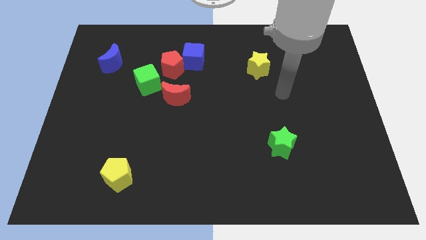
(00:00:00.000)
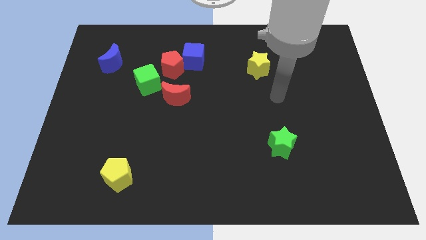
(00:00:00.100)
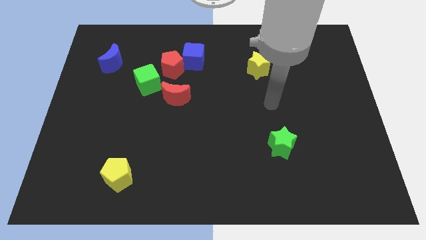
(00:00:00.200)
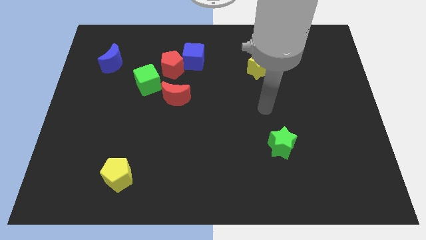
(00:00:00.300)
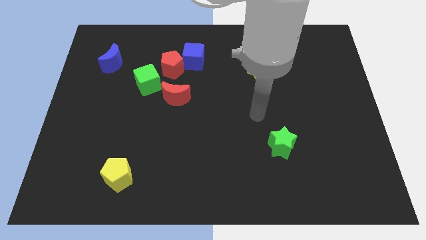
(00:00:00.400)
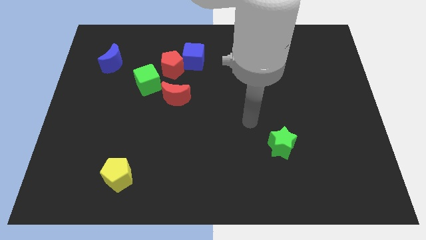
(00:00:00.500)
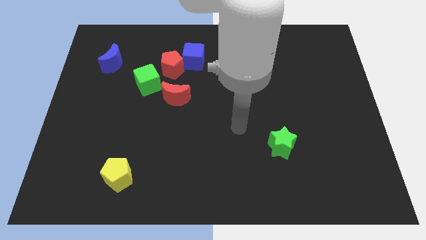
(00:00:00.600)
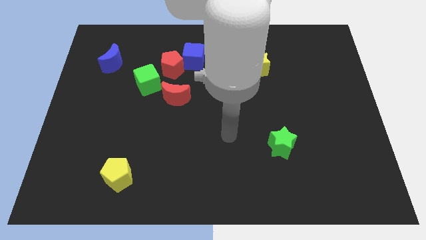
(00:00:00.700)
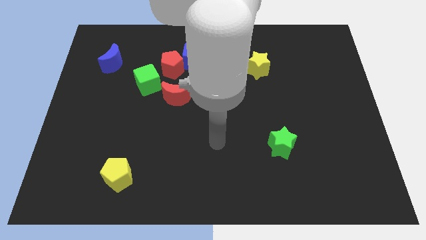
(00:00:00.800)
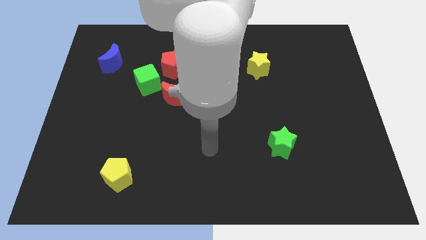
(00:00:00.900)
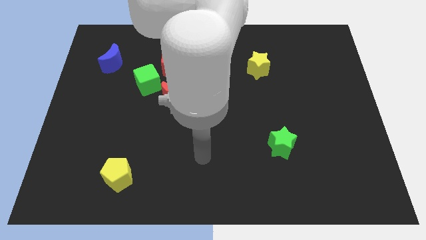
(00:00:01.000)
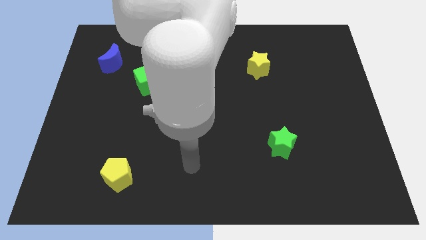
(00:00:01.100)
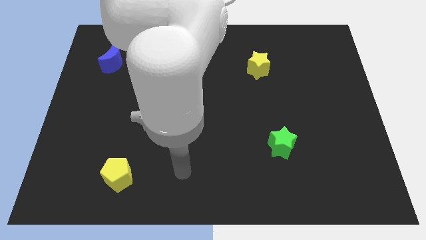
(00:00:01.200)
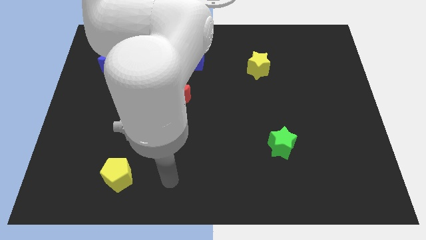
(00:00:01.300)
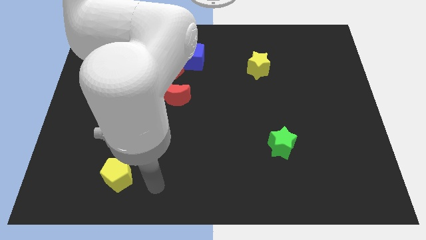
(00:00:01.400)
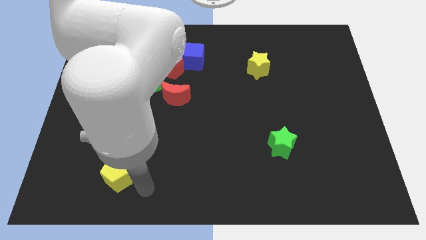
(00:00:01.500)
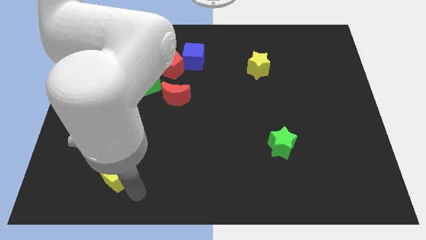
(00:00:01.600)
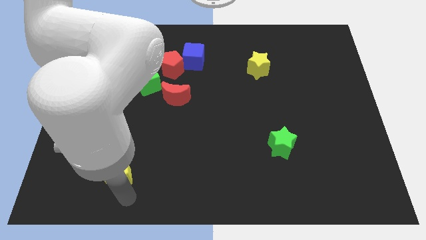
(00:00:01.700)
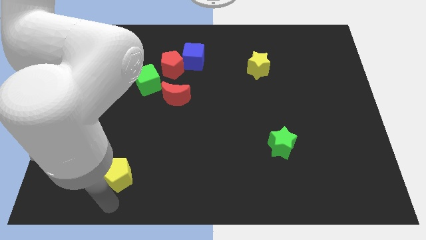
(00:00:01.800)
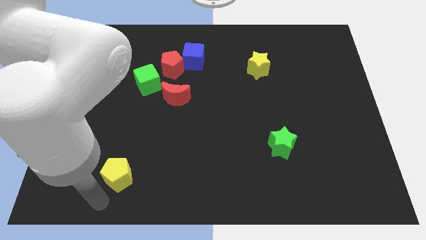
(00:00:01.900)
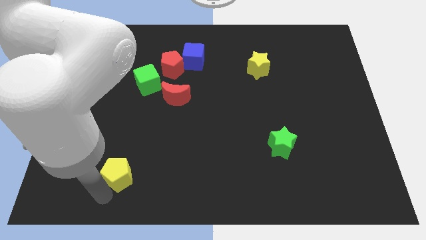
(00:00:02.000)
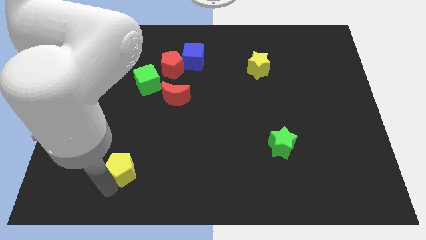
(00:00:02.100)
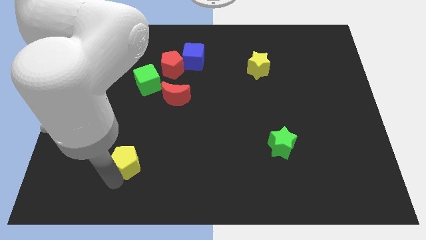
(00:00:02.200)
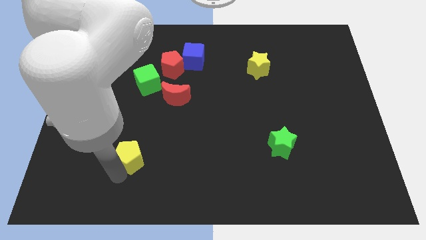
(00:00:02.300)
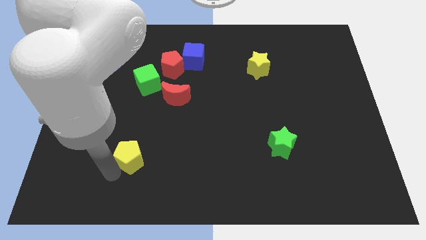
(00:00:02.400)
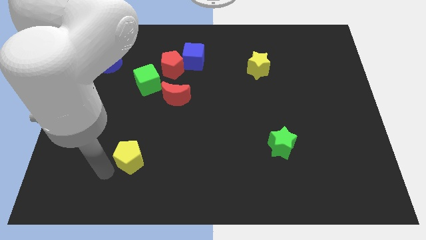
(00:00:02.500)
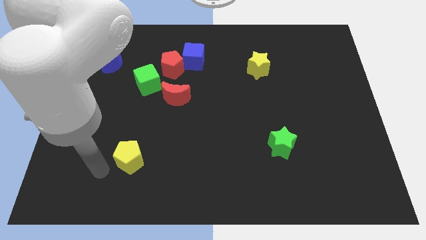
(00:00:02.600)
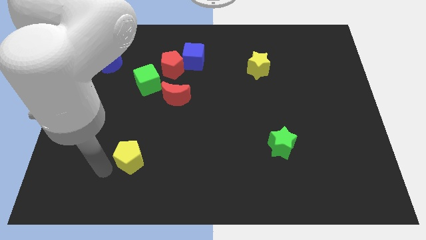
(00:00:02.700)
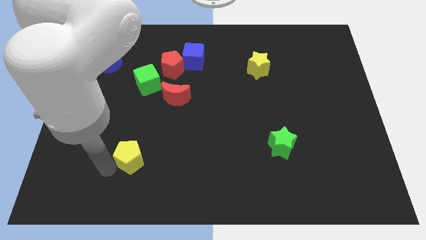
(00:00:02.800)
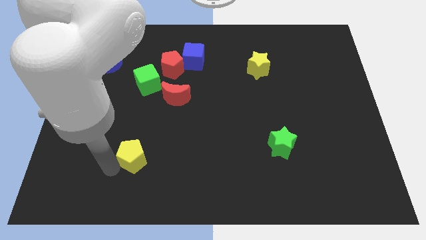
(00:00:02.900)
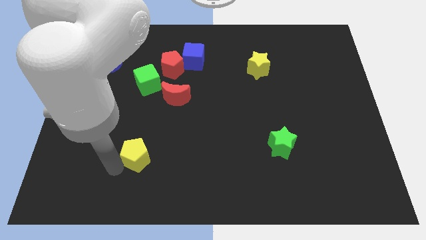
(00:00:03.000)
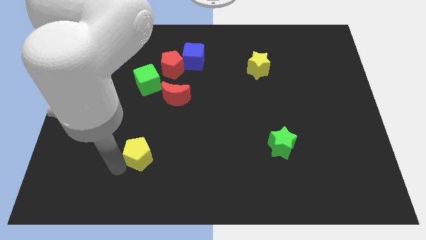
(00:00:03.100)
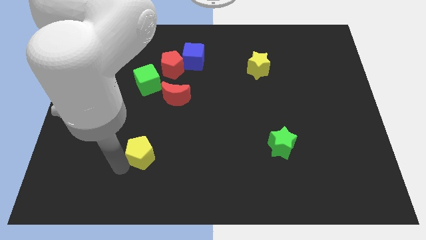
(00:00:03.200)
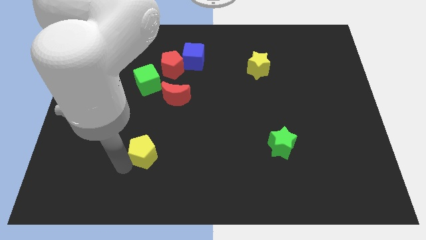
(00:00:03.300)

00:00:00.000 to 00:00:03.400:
push the yellow pentagon up and to the right a bit

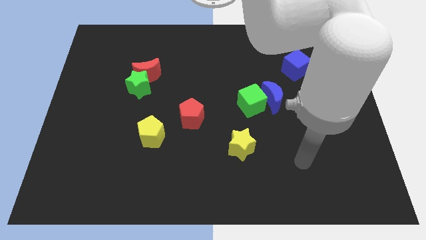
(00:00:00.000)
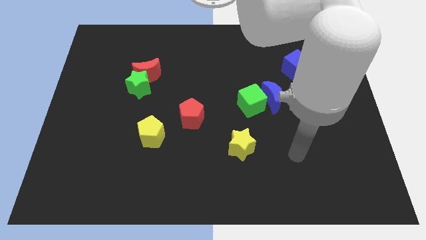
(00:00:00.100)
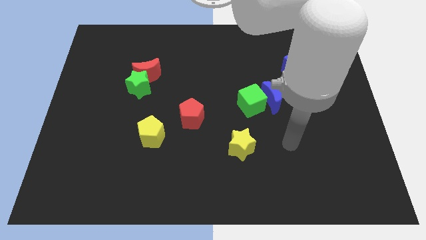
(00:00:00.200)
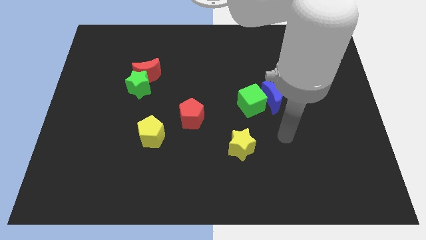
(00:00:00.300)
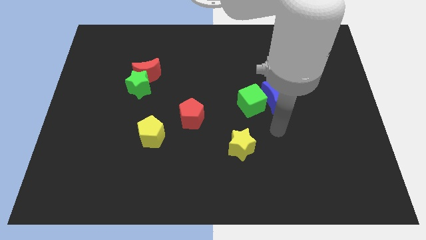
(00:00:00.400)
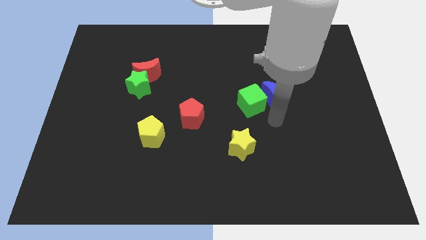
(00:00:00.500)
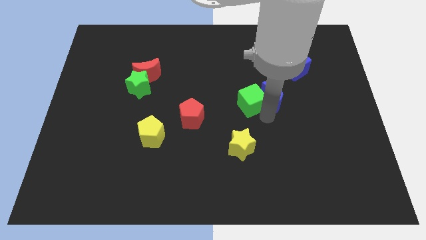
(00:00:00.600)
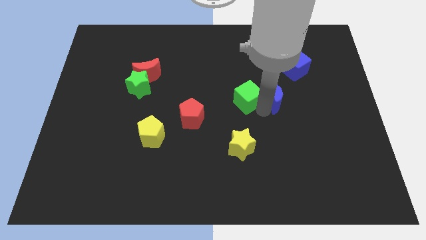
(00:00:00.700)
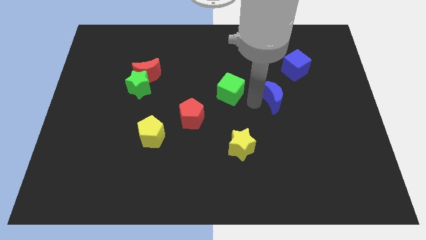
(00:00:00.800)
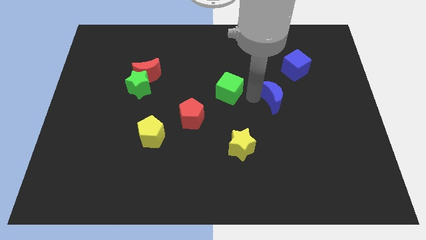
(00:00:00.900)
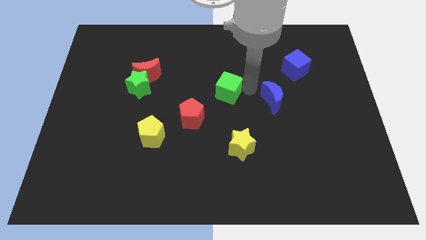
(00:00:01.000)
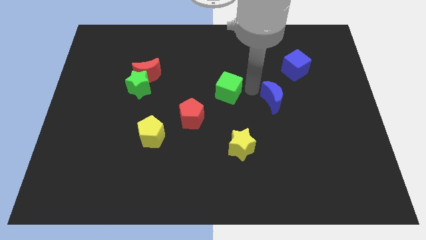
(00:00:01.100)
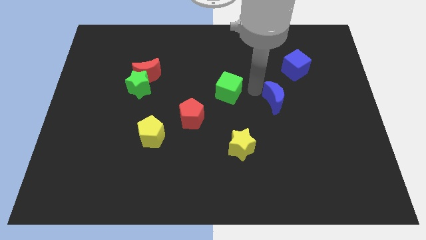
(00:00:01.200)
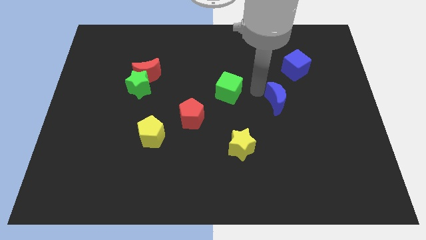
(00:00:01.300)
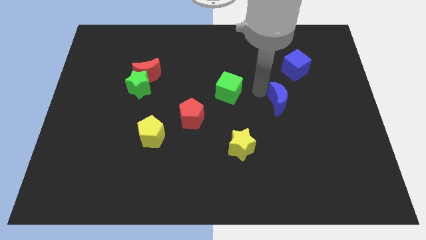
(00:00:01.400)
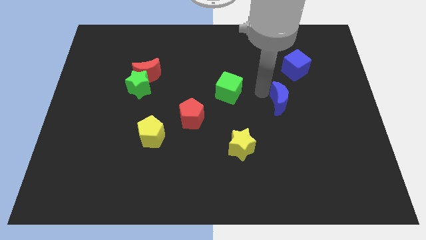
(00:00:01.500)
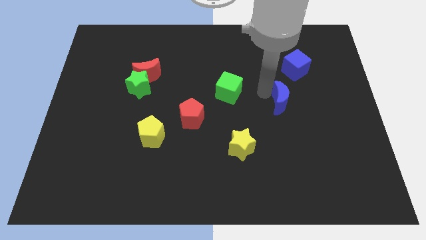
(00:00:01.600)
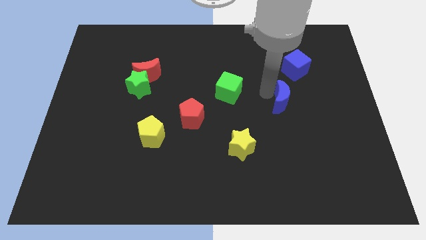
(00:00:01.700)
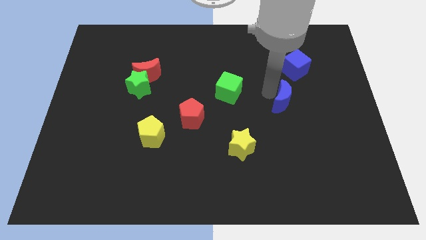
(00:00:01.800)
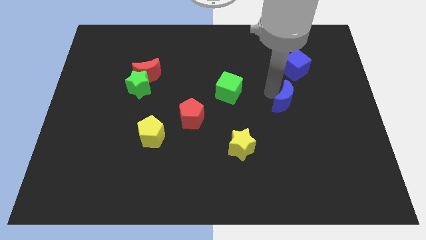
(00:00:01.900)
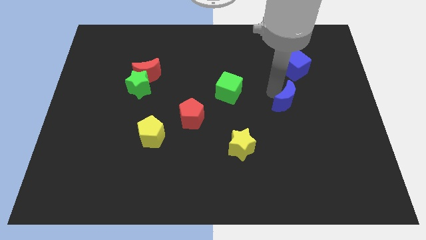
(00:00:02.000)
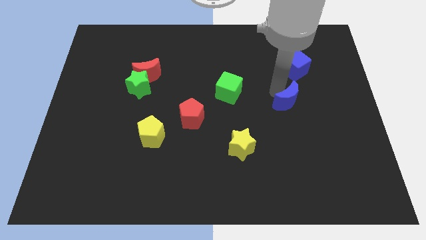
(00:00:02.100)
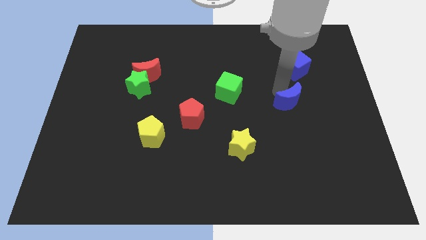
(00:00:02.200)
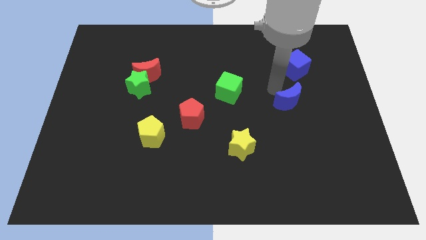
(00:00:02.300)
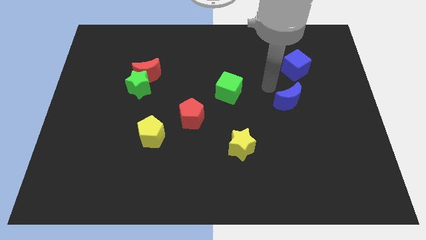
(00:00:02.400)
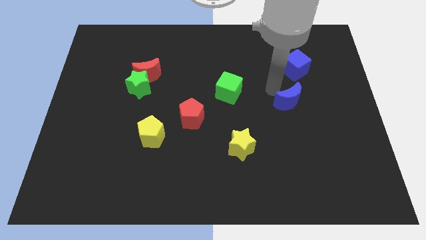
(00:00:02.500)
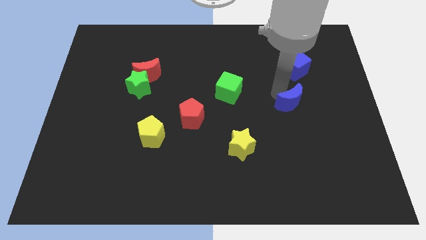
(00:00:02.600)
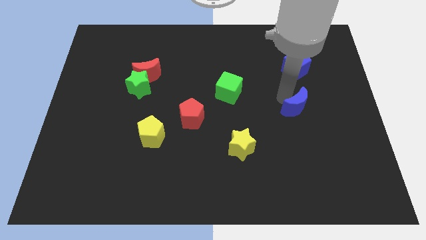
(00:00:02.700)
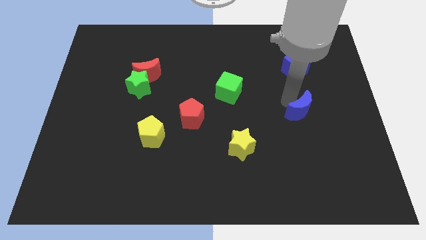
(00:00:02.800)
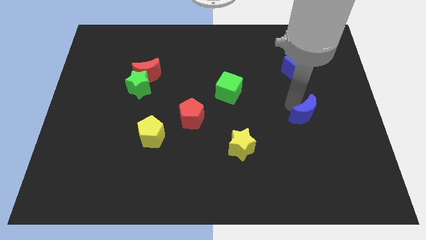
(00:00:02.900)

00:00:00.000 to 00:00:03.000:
push the blue moon slightly downwards and then to the right

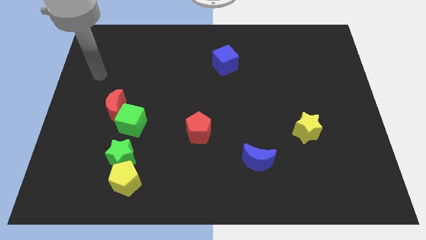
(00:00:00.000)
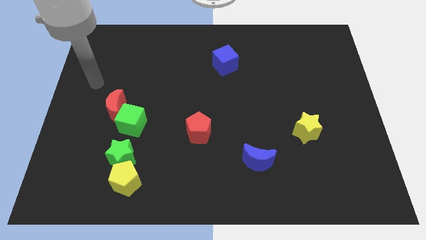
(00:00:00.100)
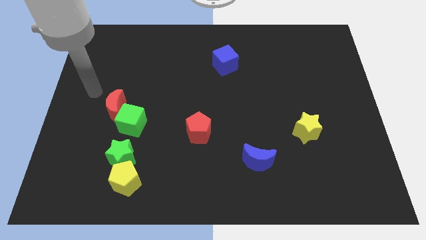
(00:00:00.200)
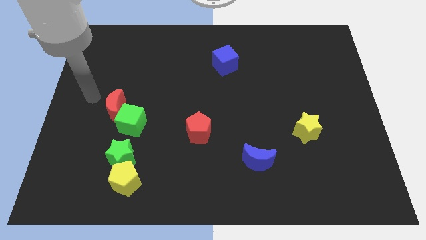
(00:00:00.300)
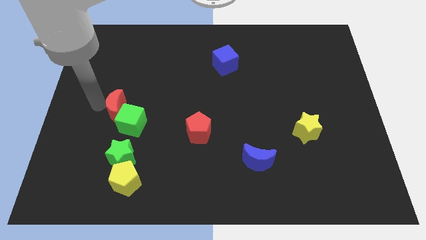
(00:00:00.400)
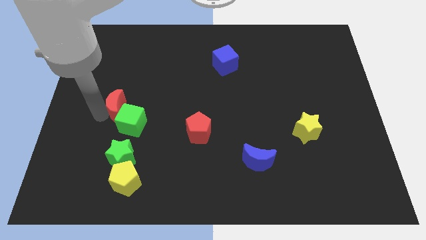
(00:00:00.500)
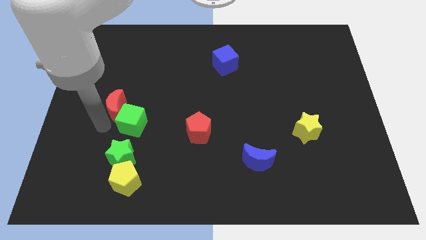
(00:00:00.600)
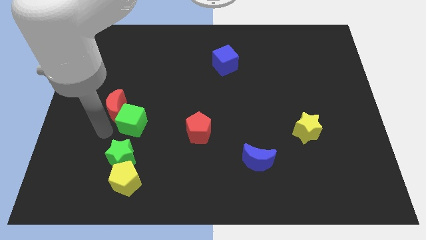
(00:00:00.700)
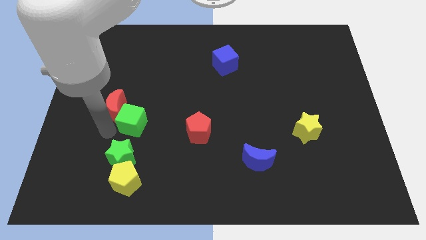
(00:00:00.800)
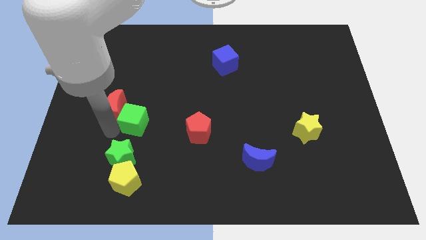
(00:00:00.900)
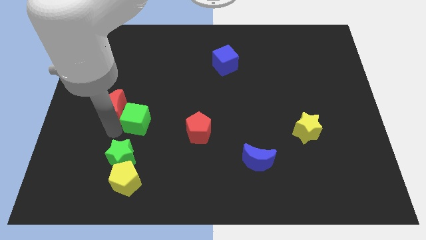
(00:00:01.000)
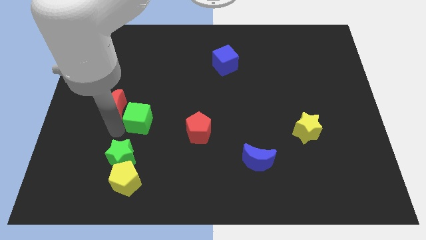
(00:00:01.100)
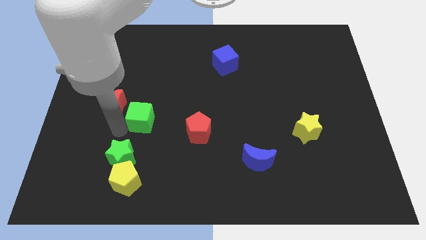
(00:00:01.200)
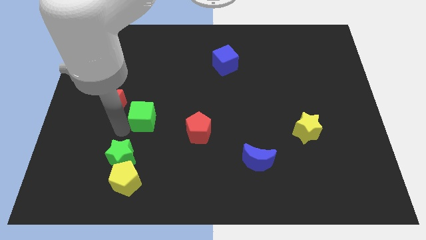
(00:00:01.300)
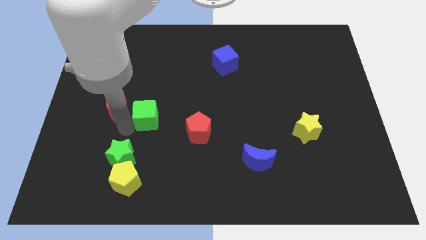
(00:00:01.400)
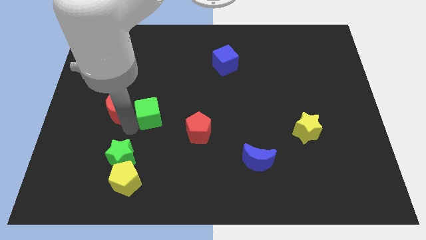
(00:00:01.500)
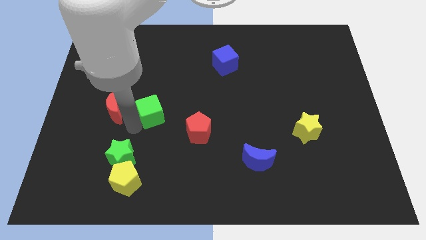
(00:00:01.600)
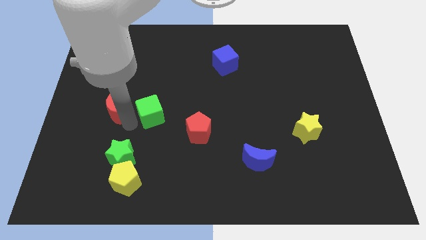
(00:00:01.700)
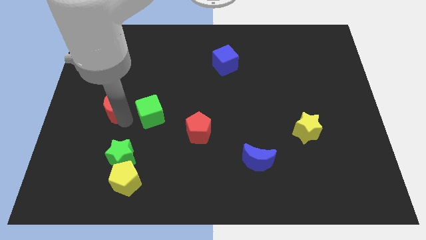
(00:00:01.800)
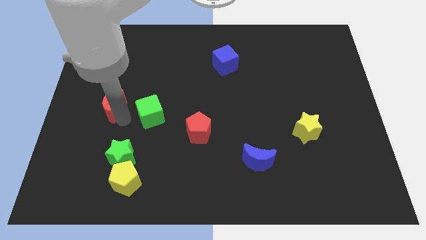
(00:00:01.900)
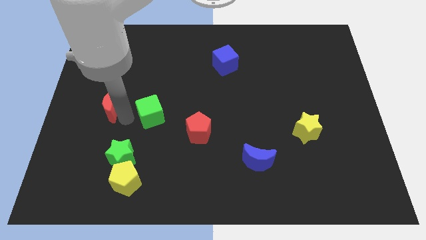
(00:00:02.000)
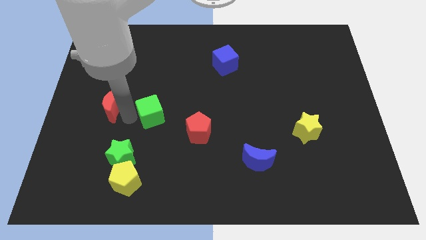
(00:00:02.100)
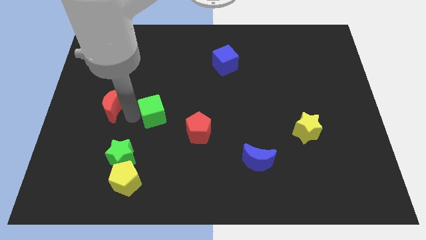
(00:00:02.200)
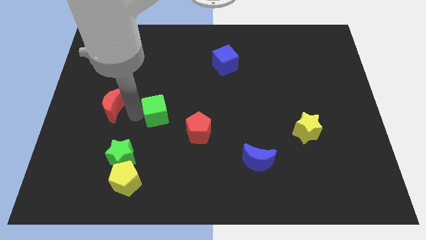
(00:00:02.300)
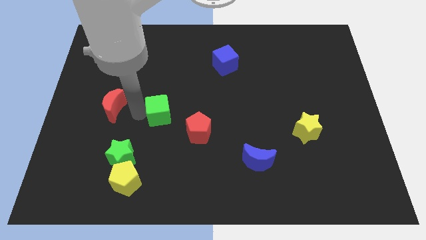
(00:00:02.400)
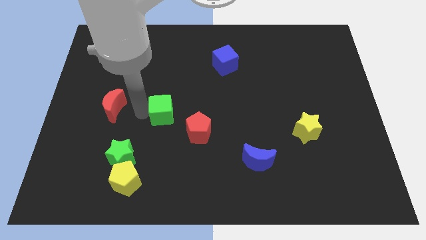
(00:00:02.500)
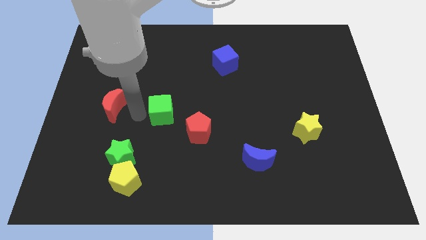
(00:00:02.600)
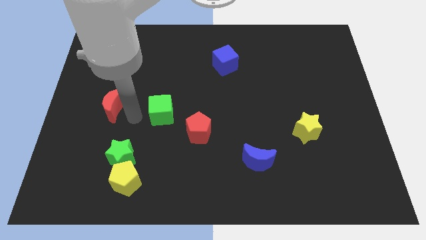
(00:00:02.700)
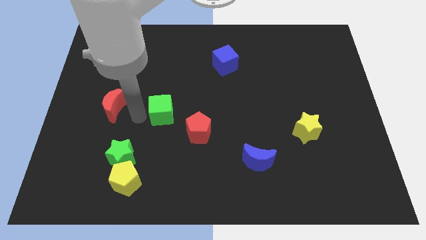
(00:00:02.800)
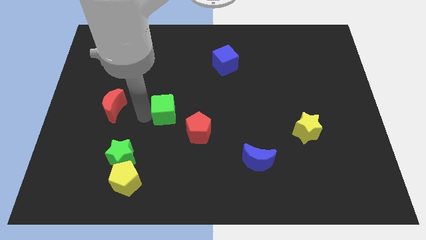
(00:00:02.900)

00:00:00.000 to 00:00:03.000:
move the green cube a bit right
